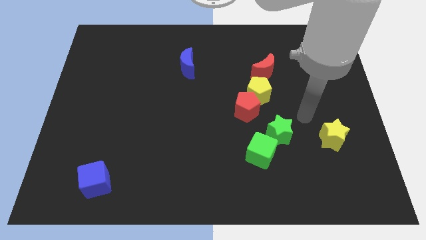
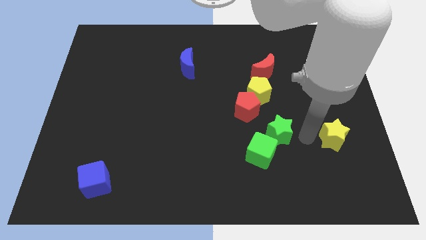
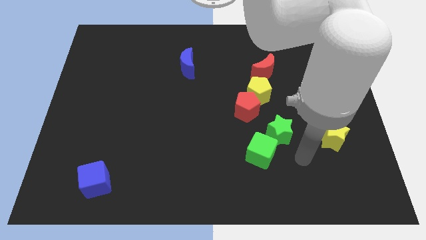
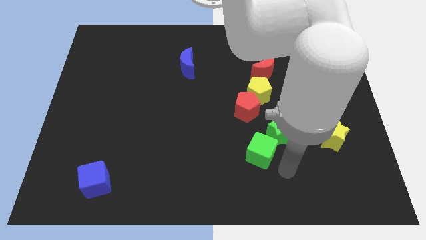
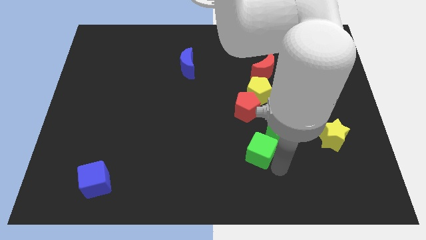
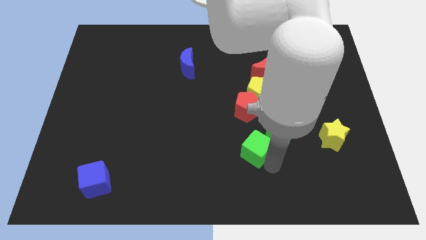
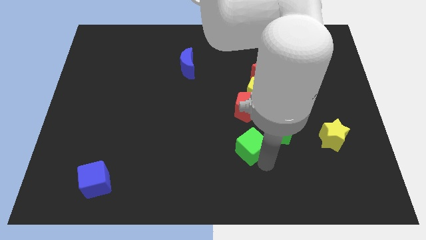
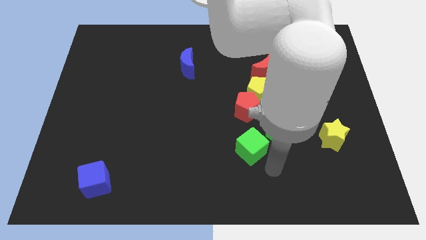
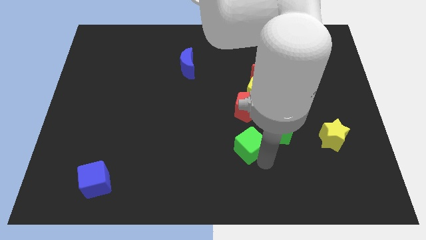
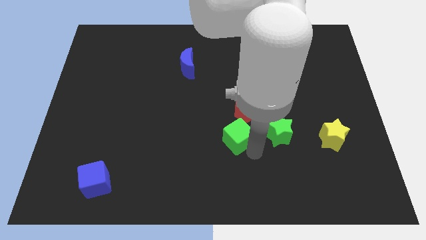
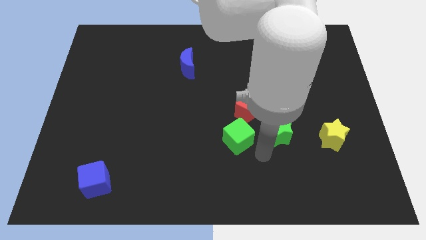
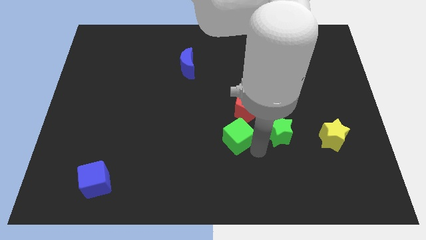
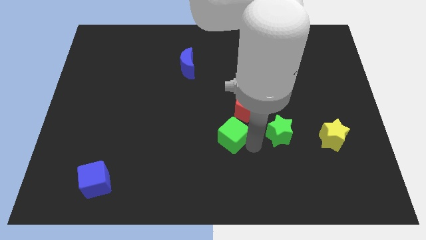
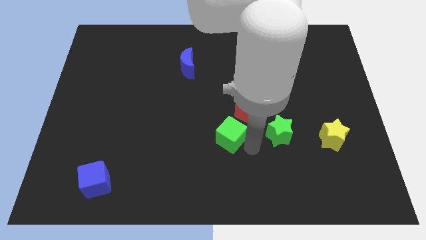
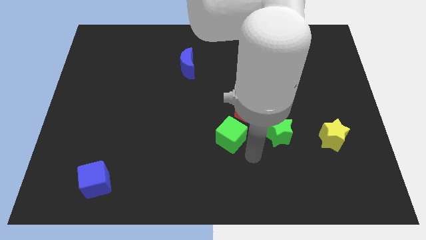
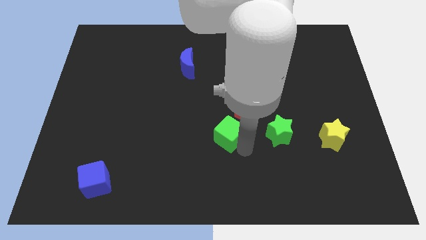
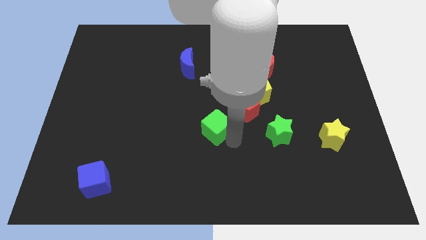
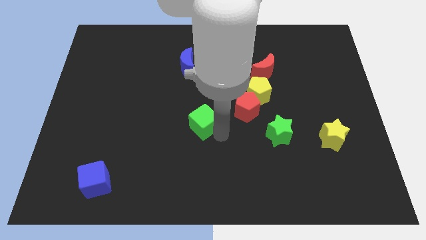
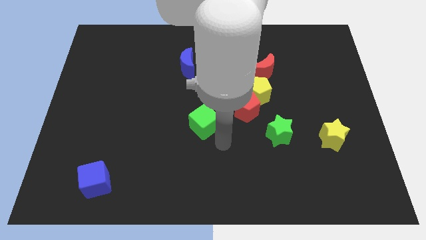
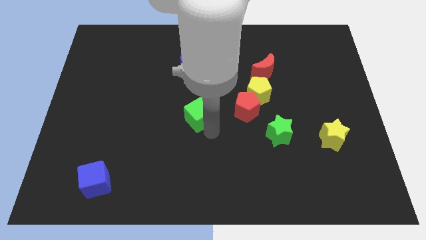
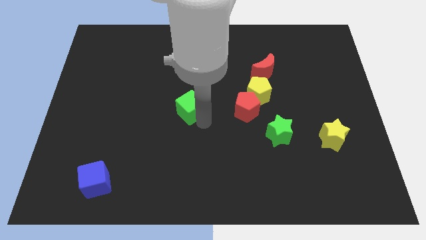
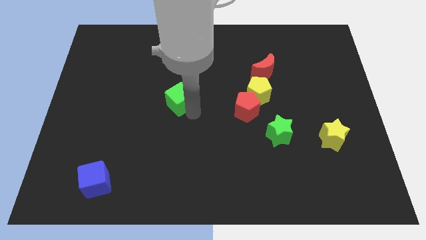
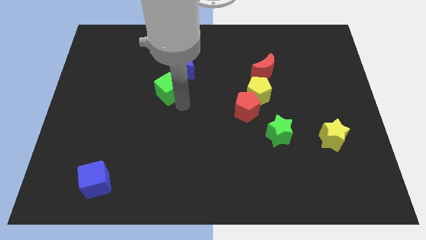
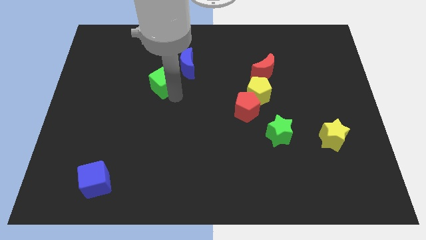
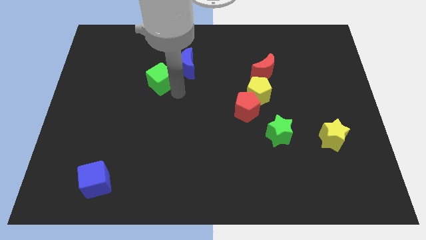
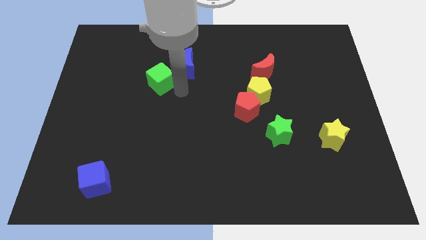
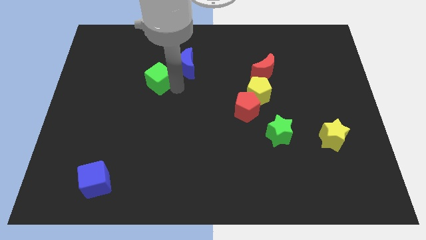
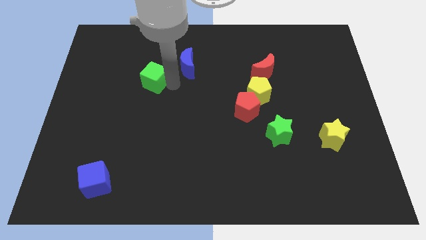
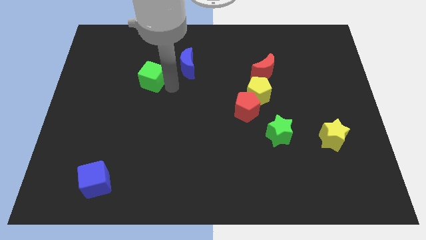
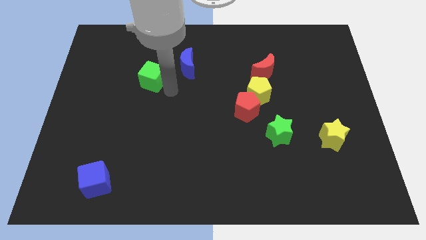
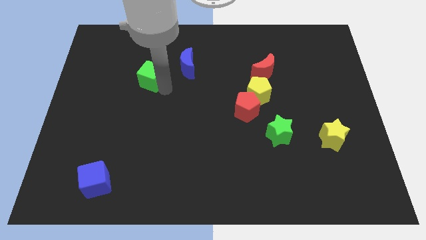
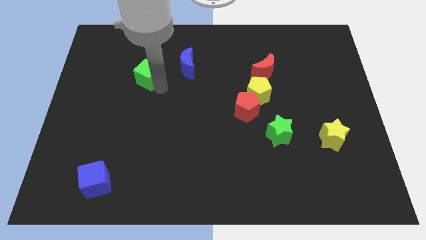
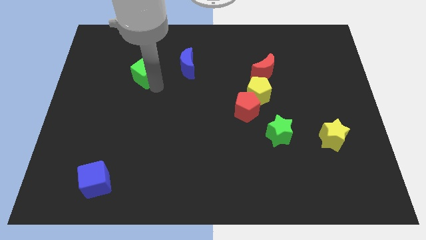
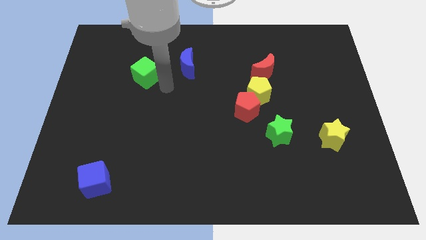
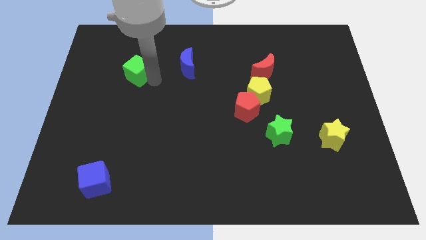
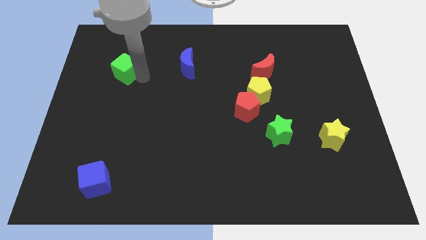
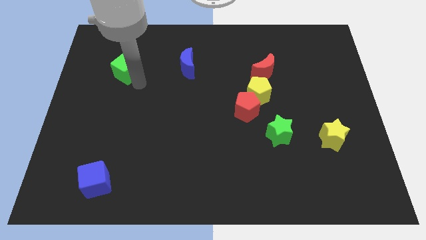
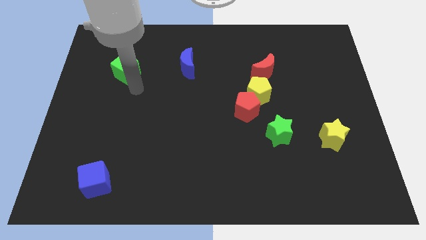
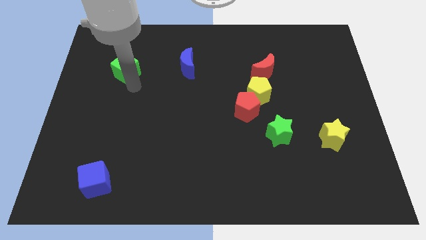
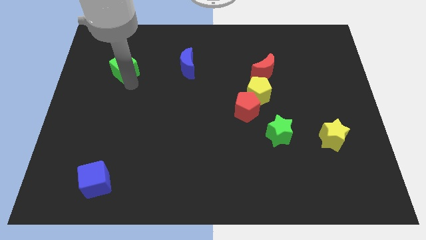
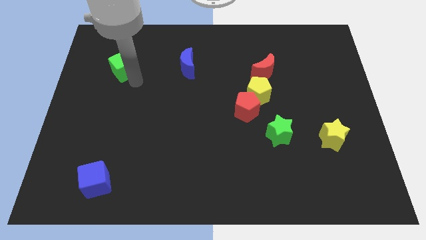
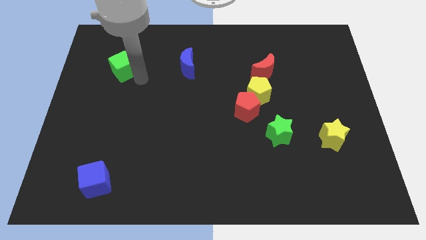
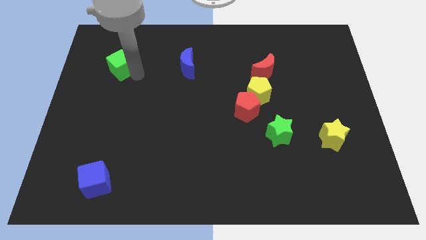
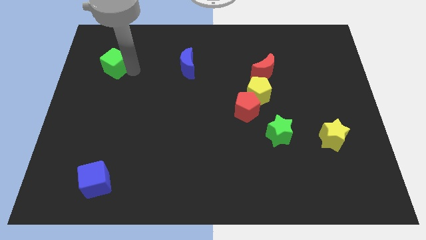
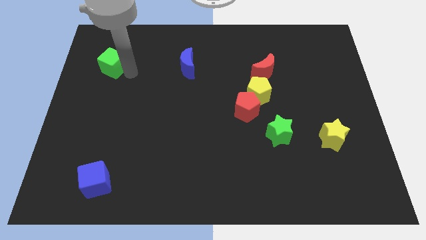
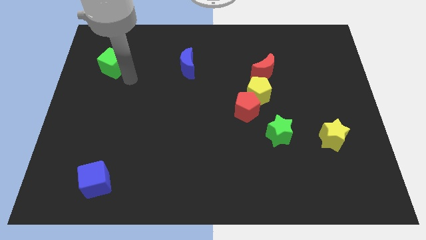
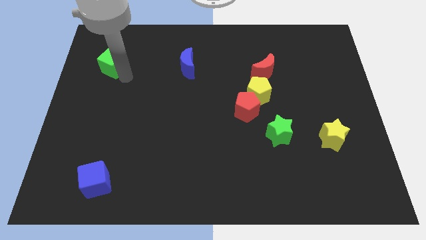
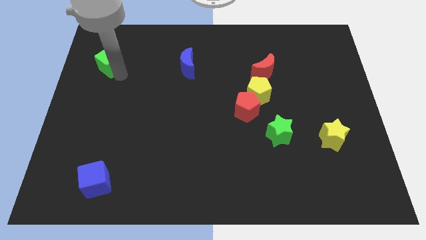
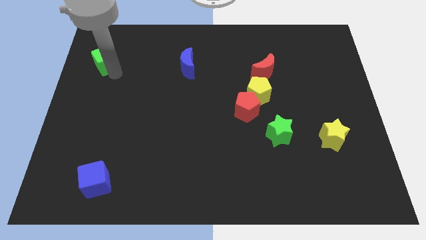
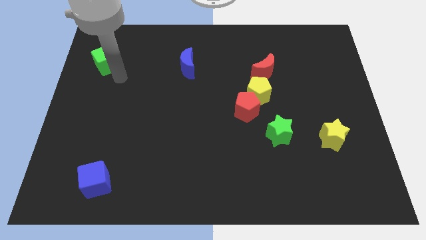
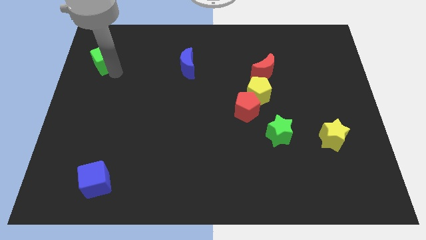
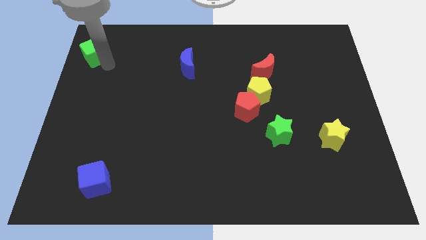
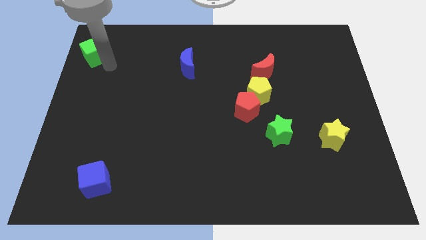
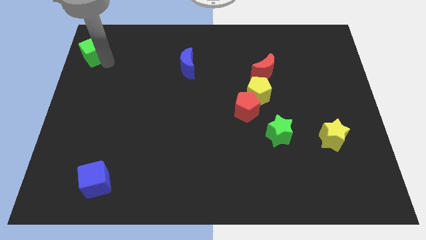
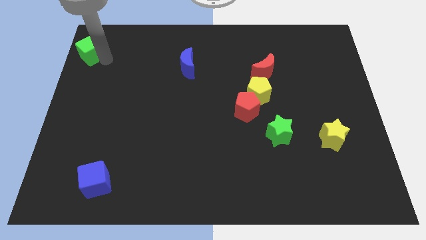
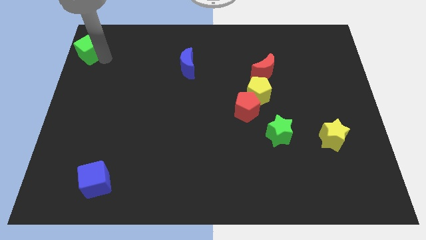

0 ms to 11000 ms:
slide the green cube to the top left

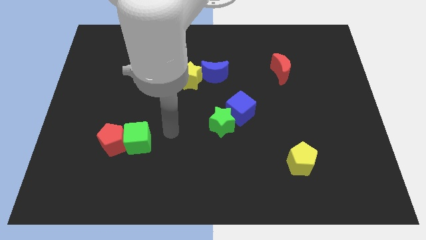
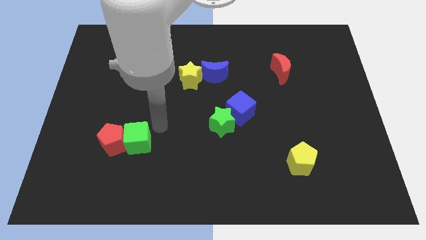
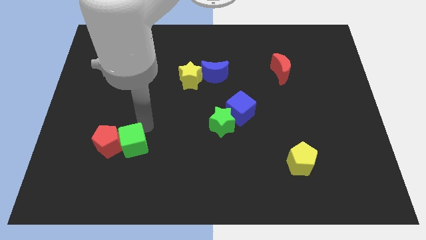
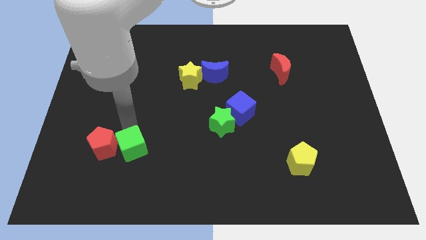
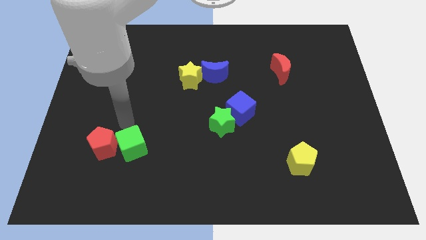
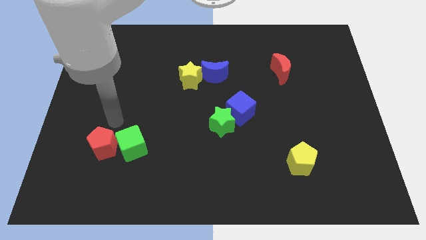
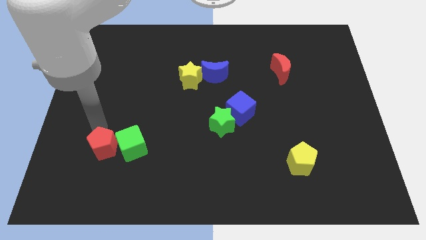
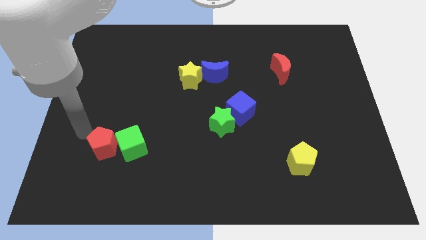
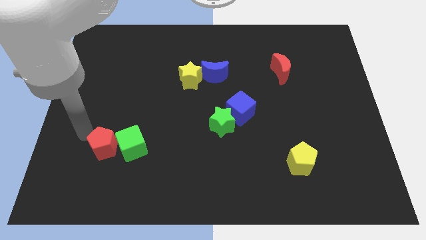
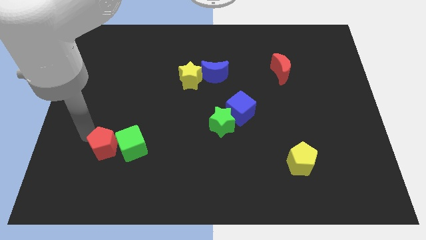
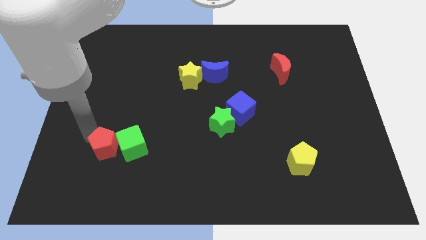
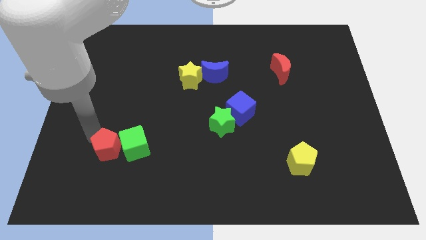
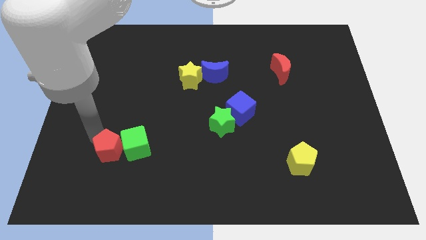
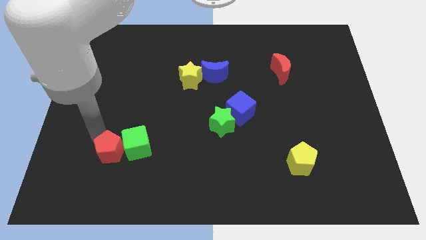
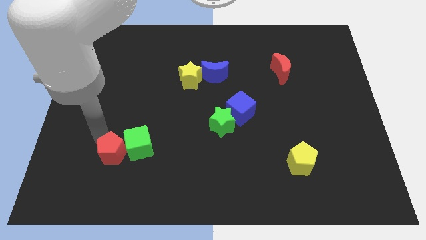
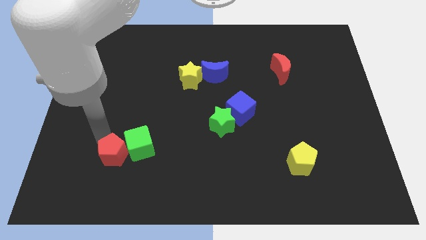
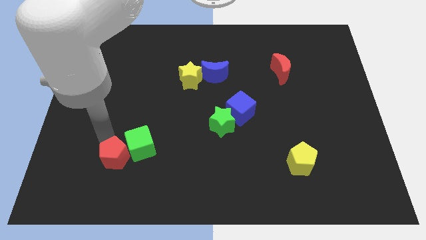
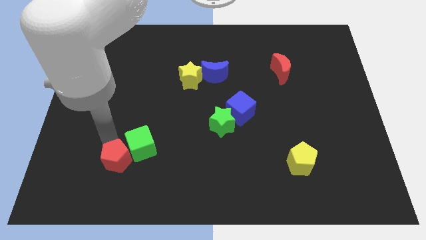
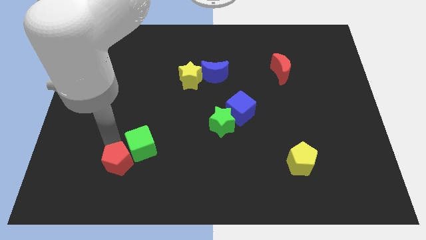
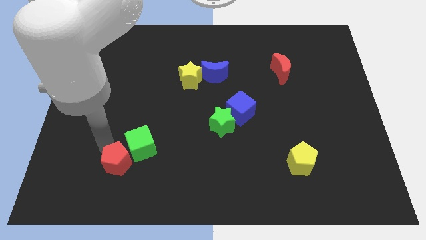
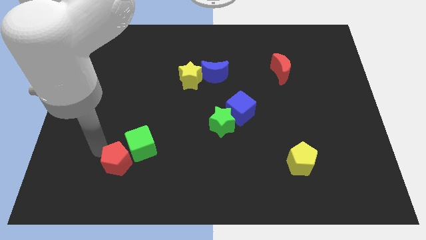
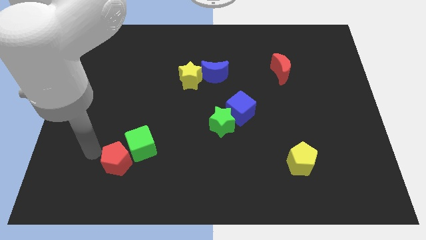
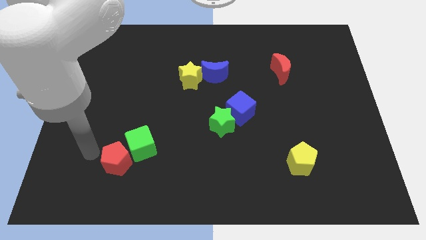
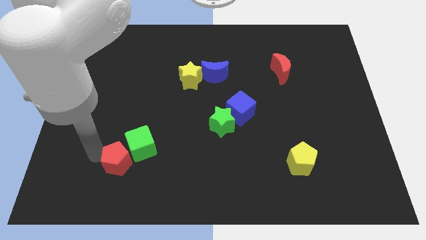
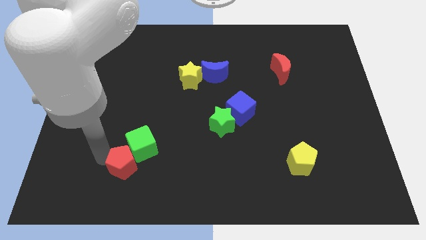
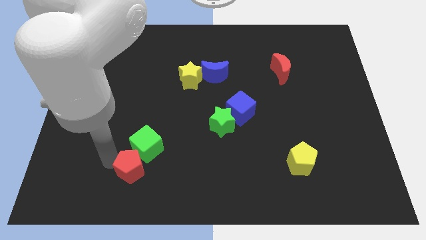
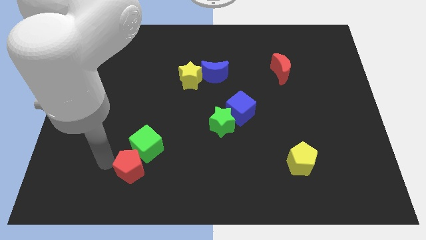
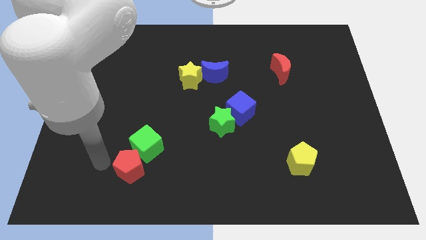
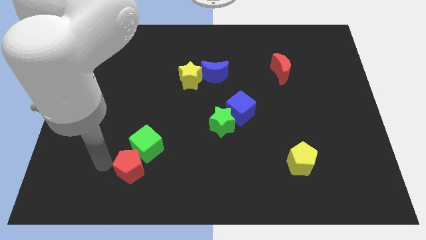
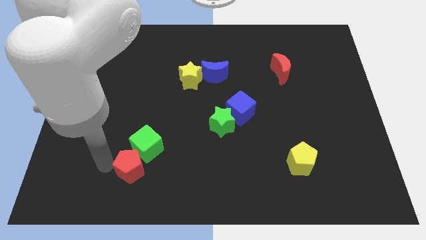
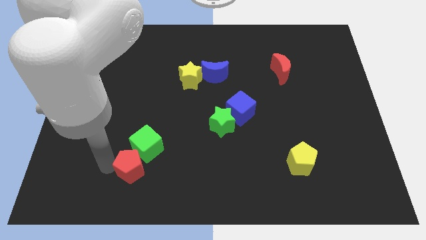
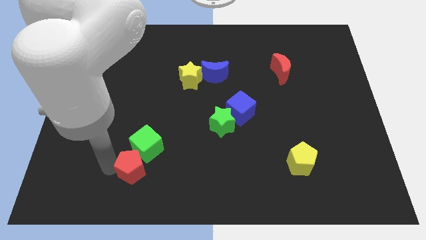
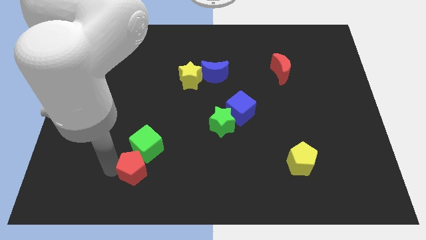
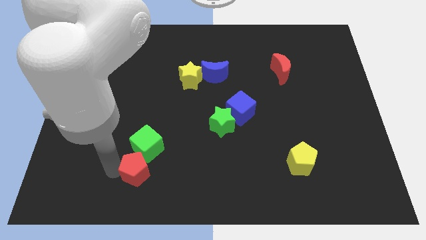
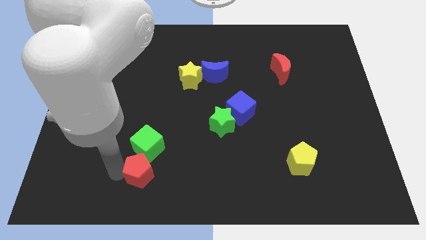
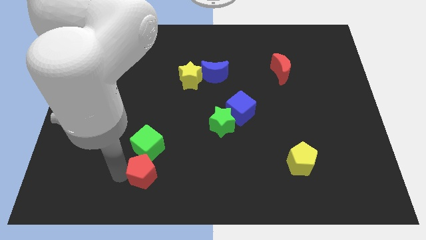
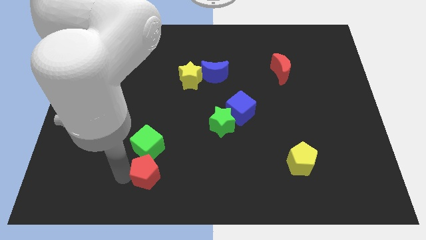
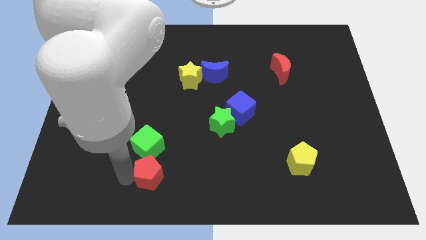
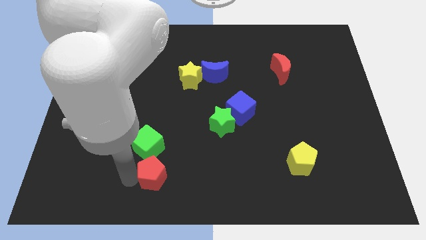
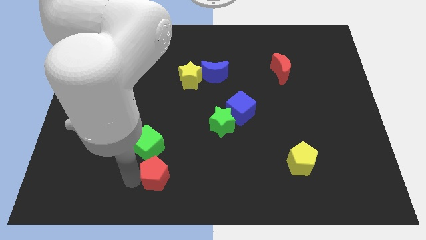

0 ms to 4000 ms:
slide the red pentagon to the bottom side
